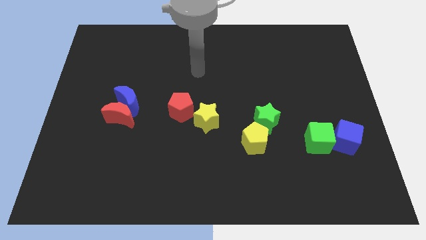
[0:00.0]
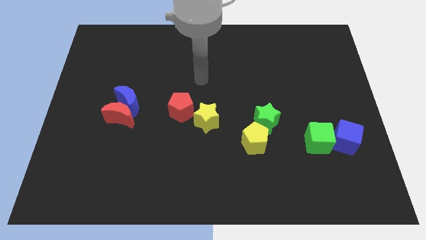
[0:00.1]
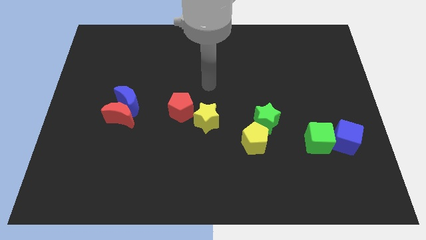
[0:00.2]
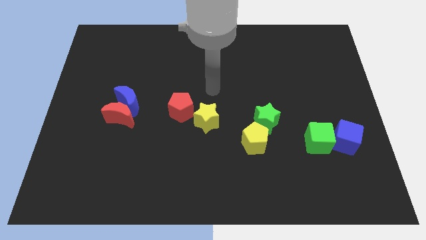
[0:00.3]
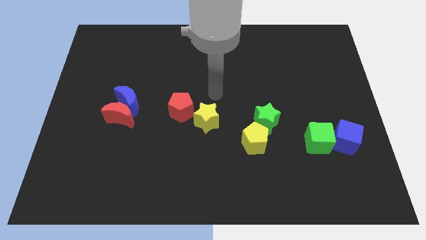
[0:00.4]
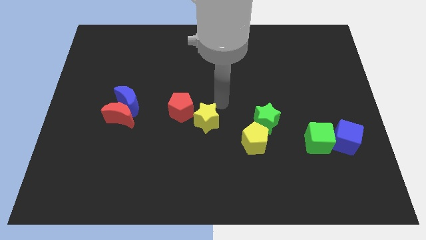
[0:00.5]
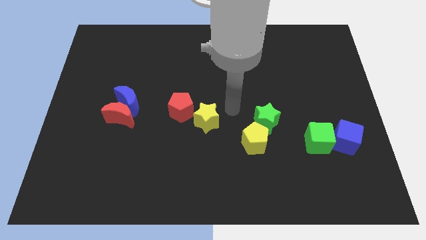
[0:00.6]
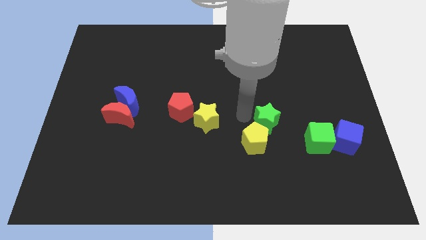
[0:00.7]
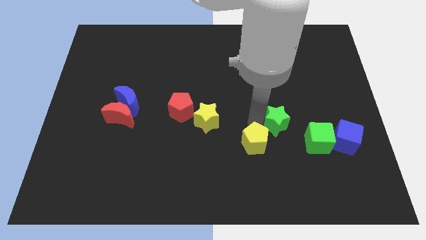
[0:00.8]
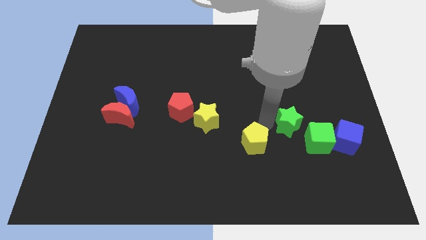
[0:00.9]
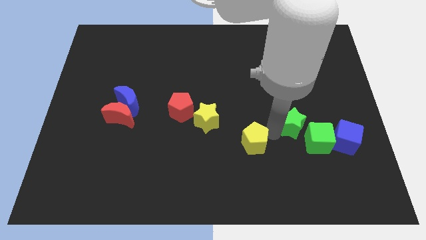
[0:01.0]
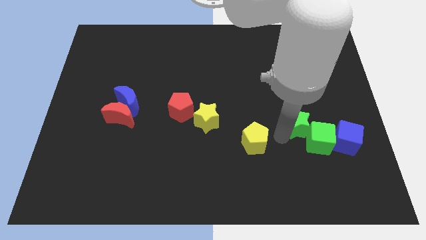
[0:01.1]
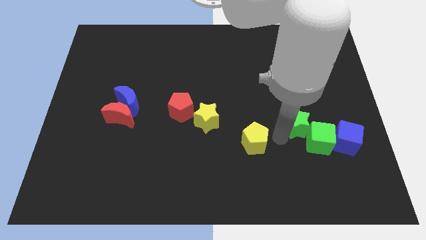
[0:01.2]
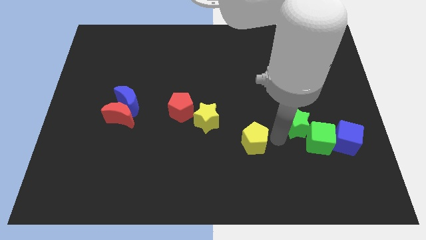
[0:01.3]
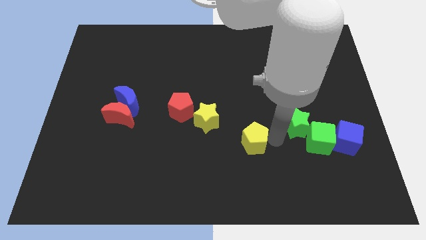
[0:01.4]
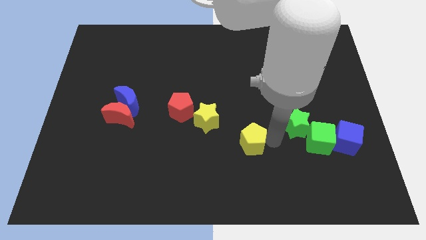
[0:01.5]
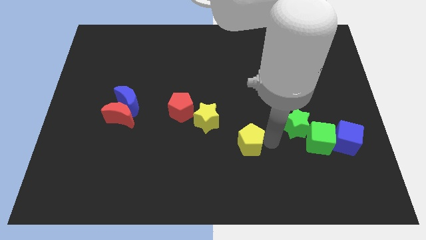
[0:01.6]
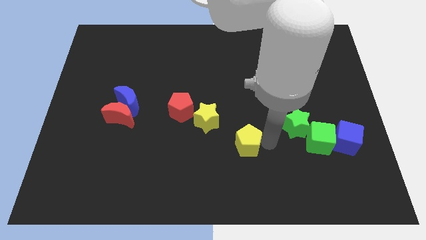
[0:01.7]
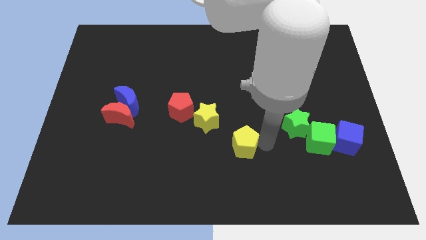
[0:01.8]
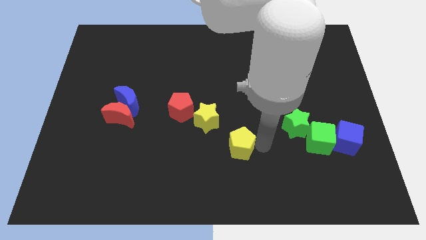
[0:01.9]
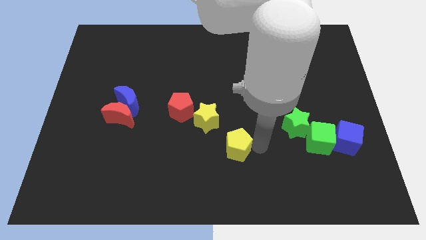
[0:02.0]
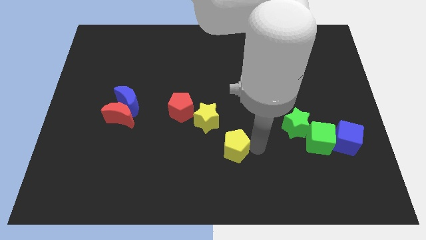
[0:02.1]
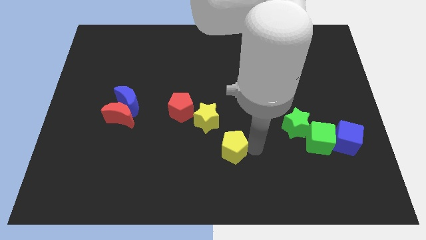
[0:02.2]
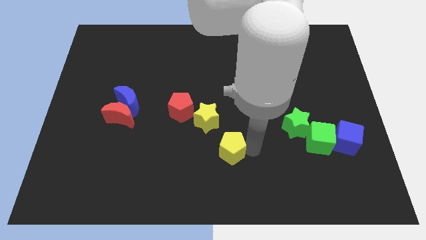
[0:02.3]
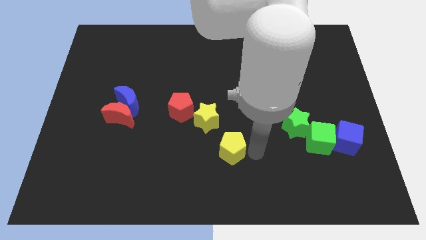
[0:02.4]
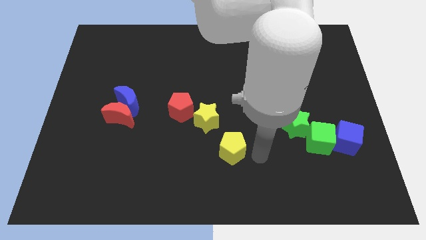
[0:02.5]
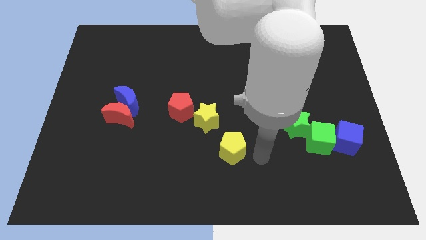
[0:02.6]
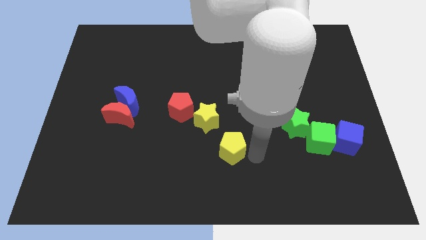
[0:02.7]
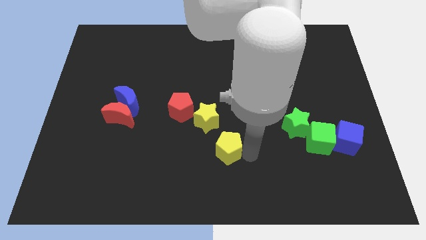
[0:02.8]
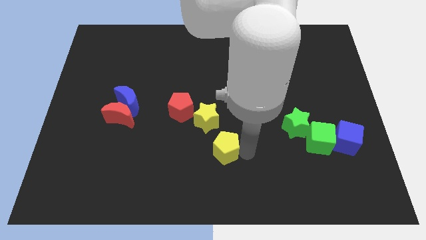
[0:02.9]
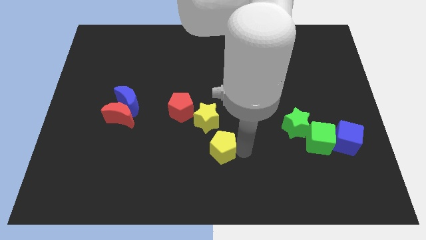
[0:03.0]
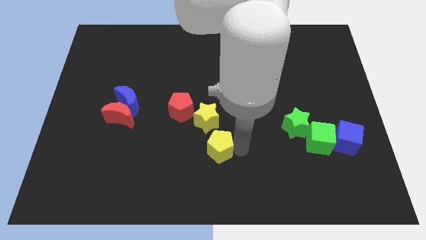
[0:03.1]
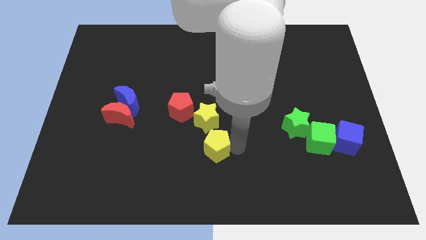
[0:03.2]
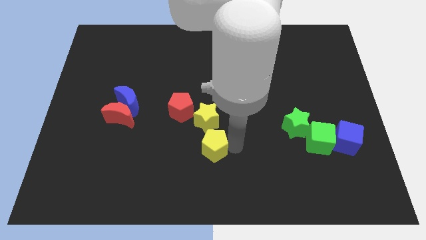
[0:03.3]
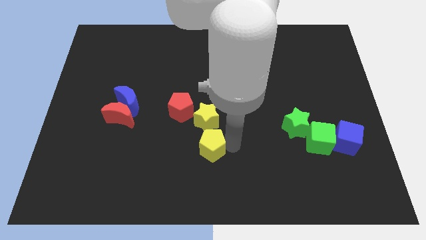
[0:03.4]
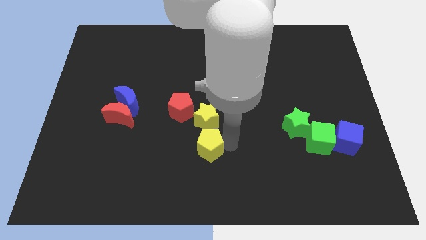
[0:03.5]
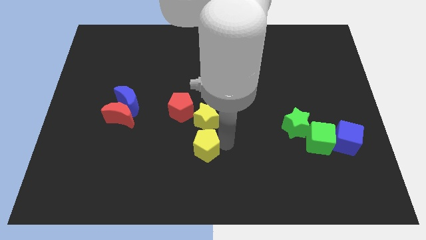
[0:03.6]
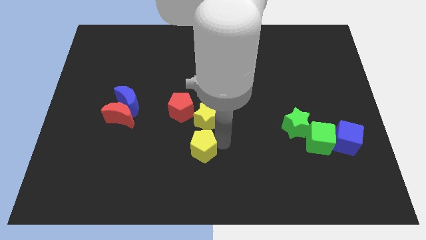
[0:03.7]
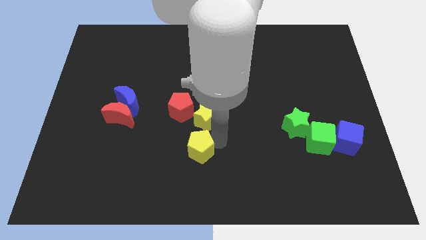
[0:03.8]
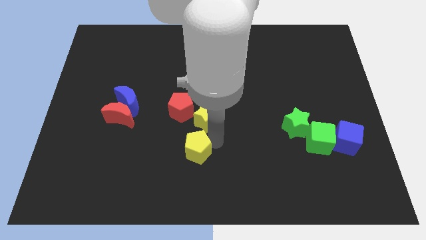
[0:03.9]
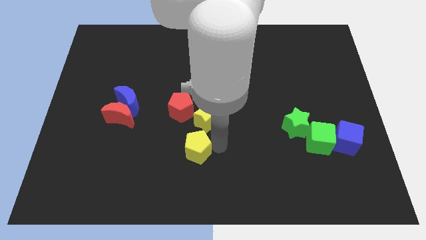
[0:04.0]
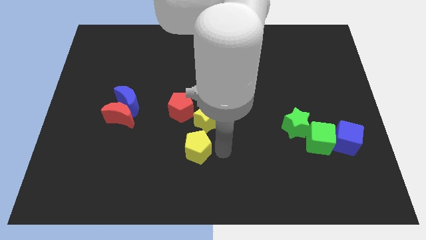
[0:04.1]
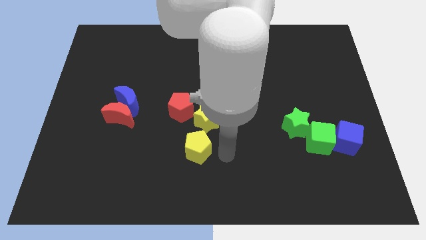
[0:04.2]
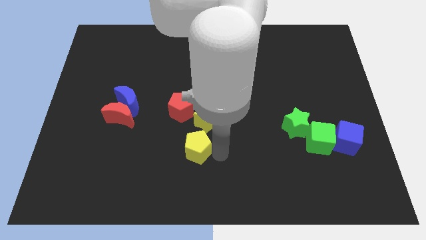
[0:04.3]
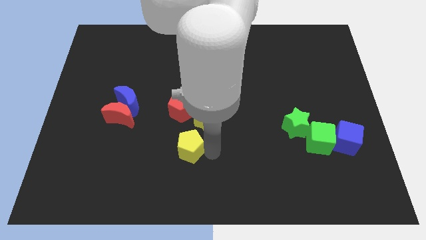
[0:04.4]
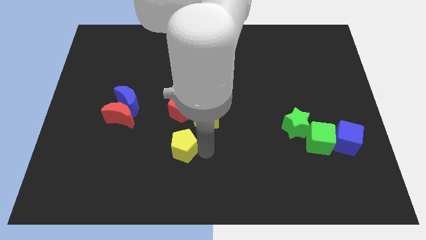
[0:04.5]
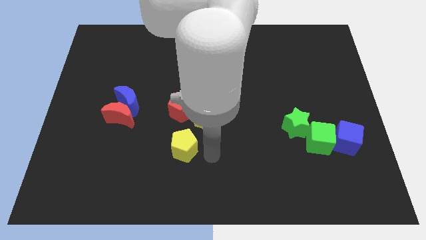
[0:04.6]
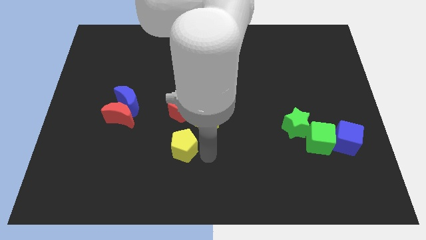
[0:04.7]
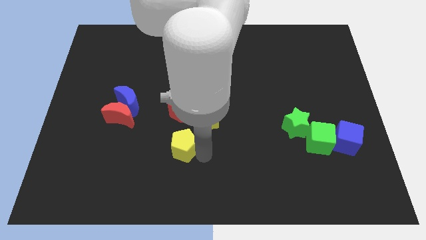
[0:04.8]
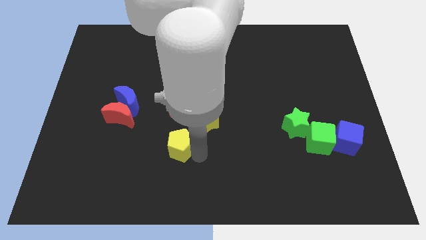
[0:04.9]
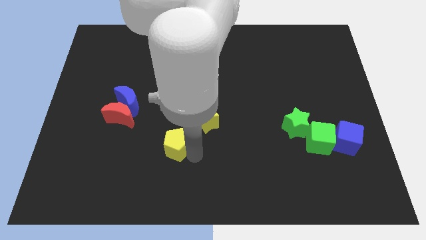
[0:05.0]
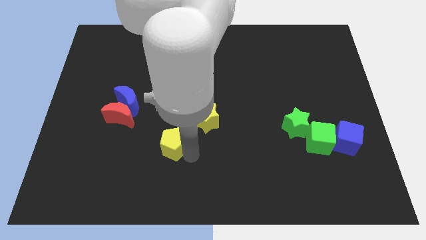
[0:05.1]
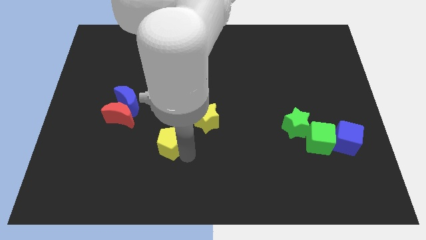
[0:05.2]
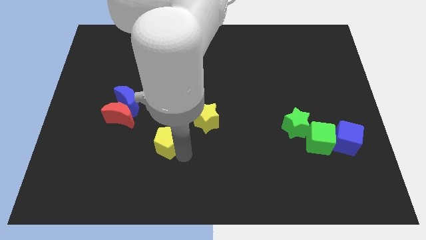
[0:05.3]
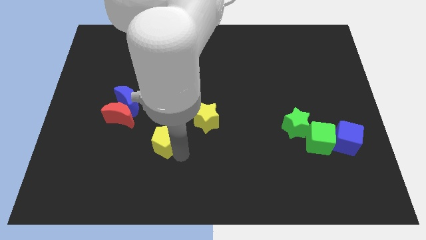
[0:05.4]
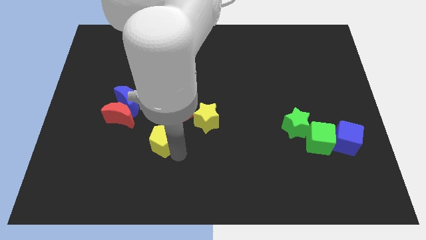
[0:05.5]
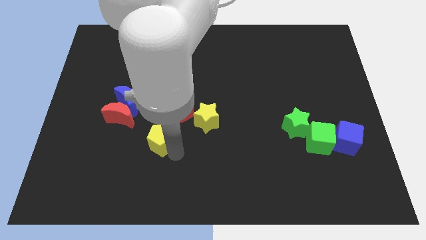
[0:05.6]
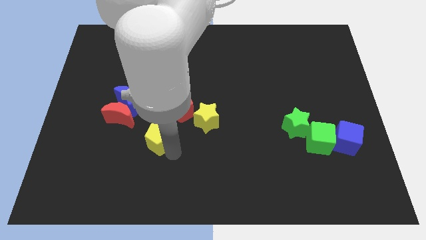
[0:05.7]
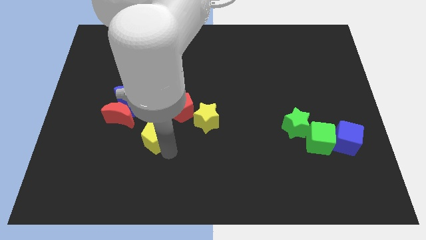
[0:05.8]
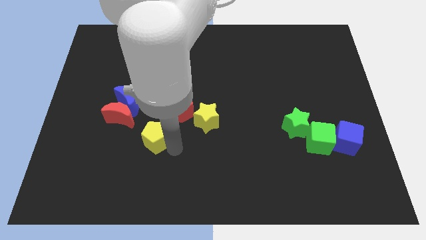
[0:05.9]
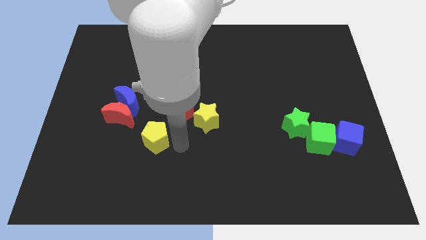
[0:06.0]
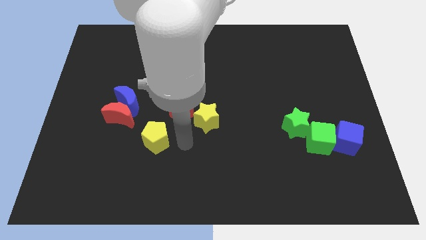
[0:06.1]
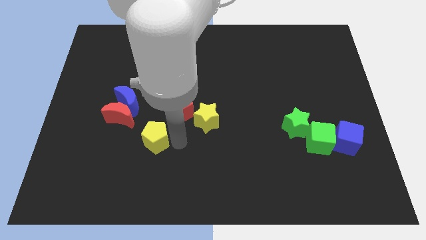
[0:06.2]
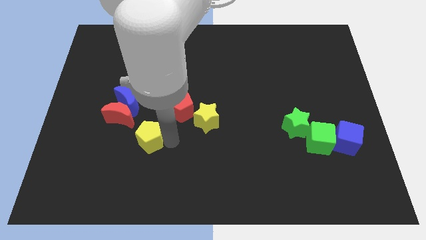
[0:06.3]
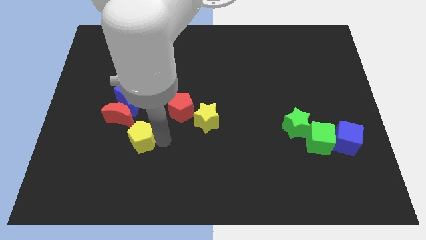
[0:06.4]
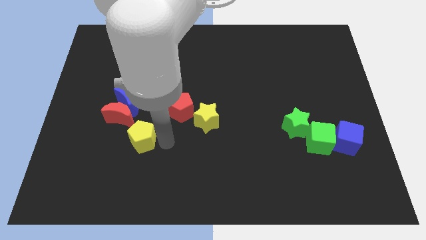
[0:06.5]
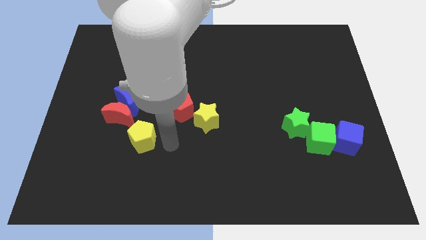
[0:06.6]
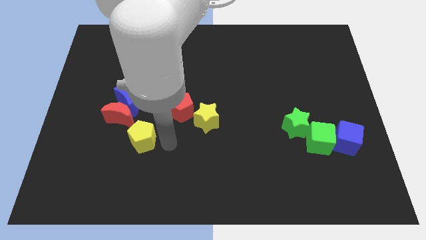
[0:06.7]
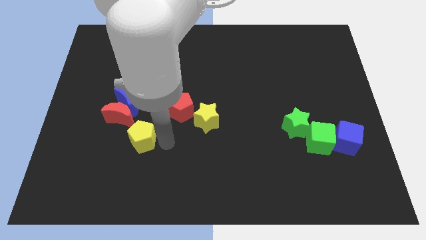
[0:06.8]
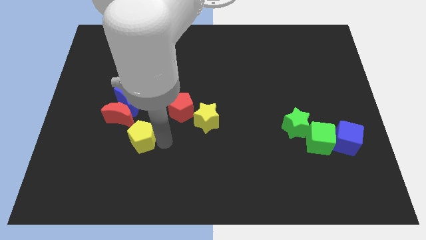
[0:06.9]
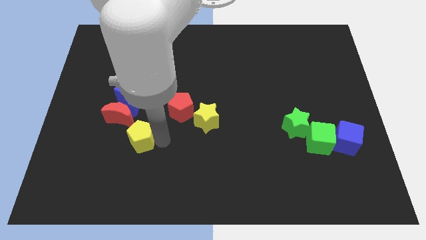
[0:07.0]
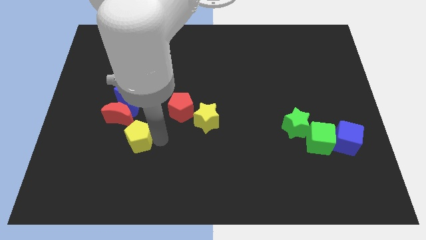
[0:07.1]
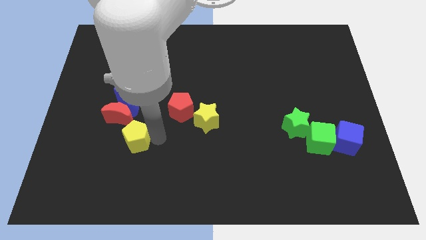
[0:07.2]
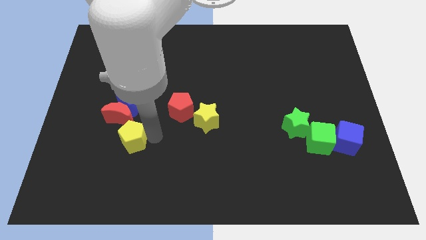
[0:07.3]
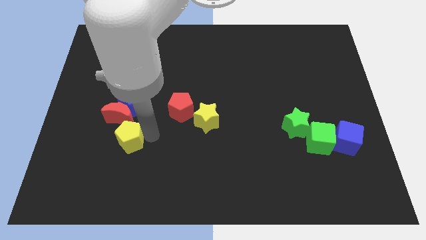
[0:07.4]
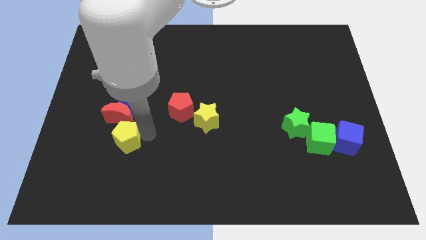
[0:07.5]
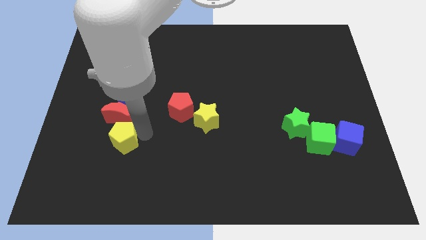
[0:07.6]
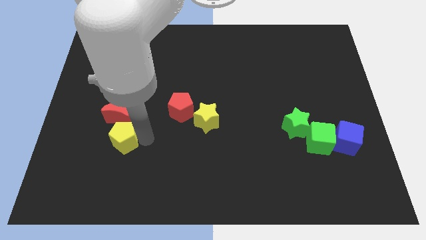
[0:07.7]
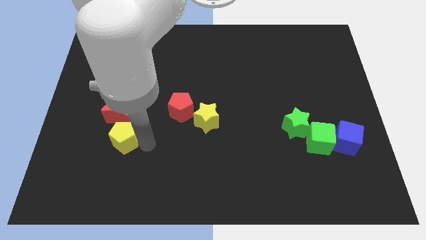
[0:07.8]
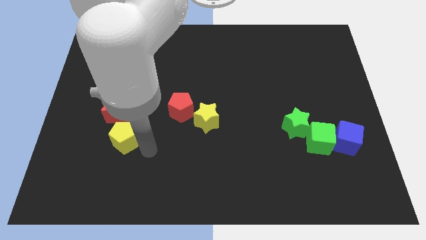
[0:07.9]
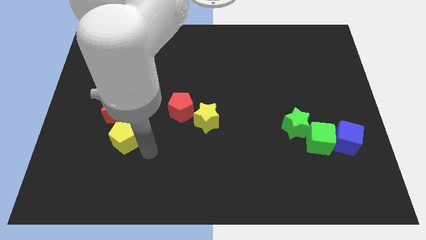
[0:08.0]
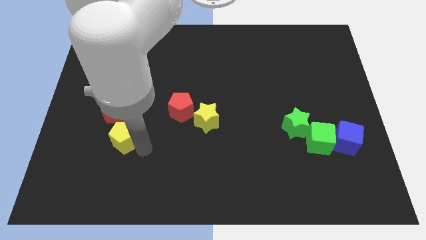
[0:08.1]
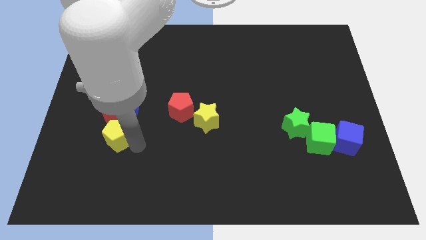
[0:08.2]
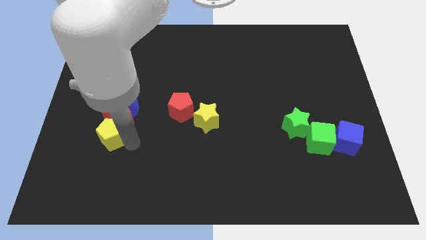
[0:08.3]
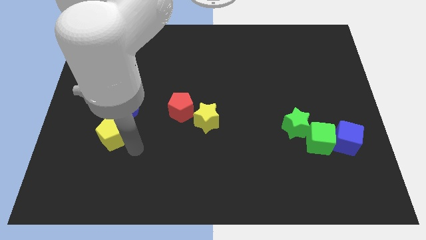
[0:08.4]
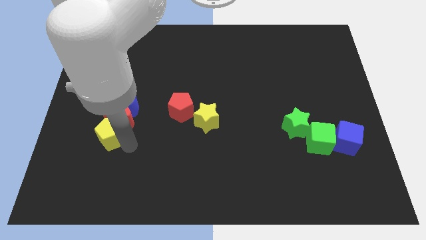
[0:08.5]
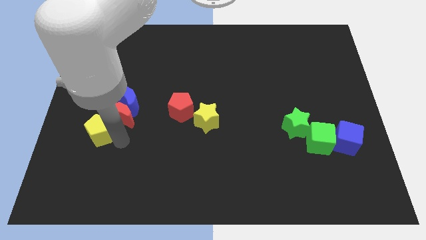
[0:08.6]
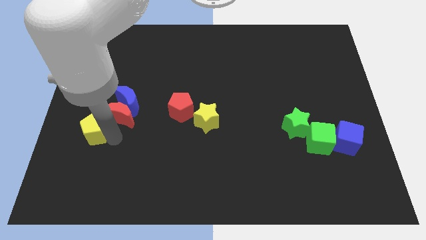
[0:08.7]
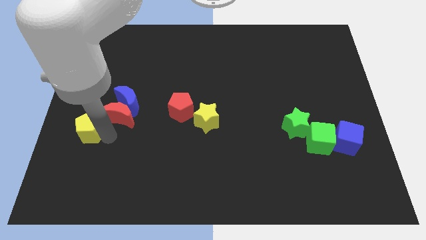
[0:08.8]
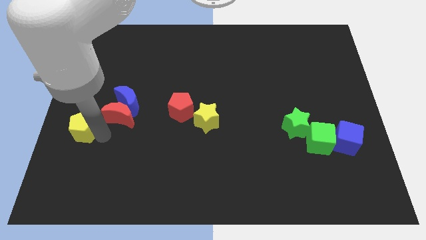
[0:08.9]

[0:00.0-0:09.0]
slide the yellow pentagon to the left side
